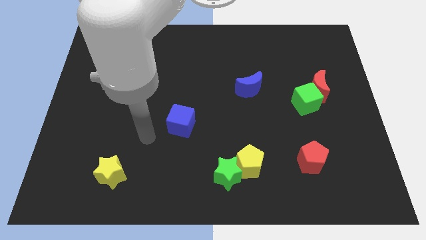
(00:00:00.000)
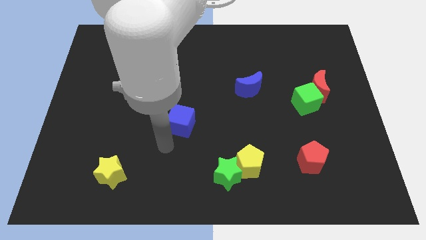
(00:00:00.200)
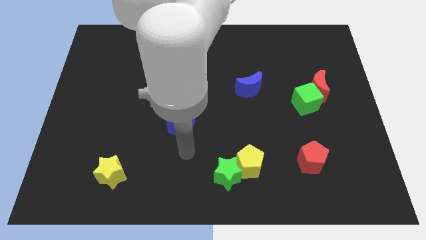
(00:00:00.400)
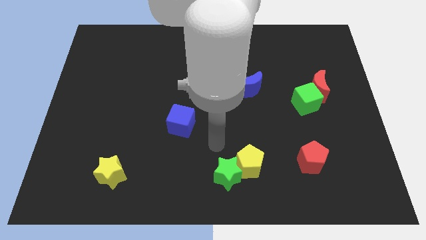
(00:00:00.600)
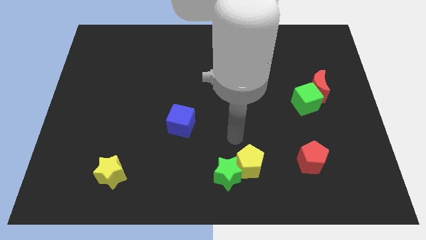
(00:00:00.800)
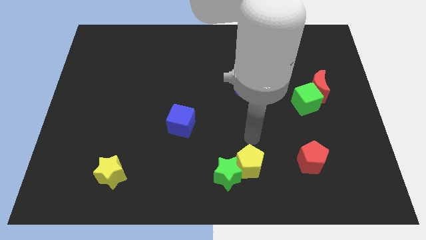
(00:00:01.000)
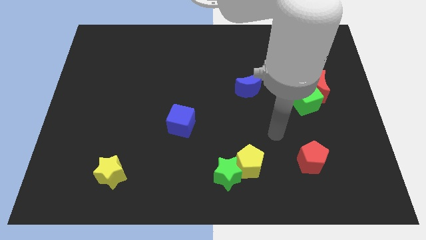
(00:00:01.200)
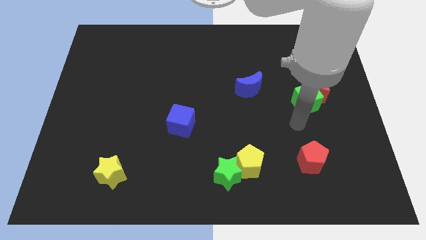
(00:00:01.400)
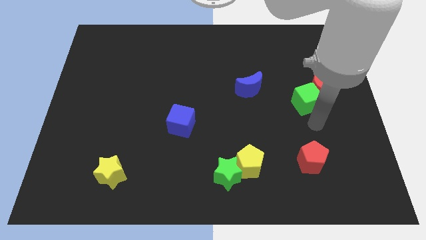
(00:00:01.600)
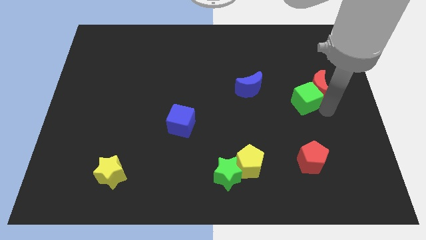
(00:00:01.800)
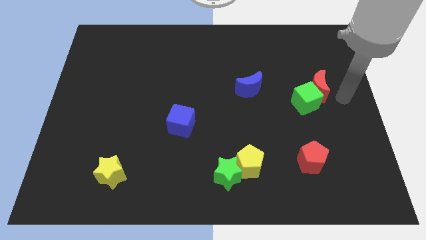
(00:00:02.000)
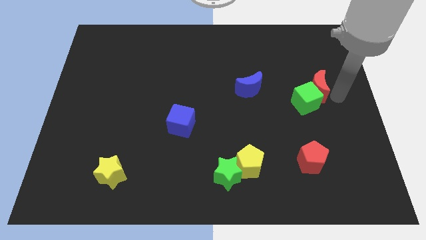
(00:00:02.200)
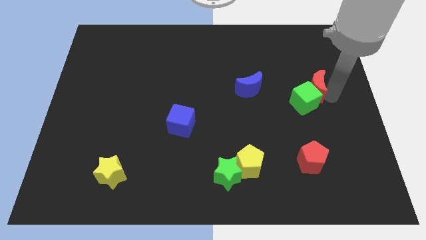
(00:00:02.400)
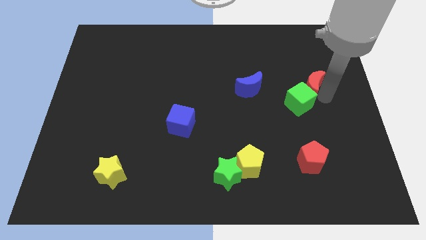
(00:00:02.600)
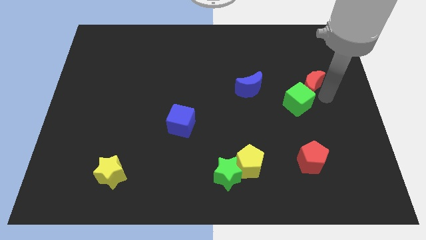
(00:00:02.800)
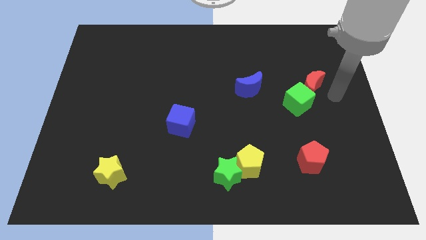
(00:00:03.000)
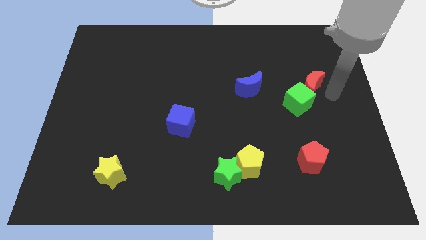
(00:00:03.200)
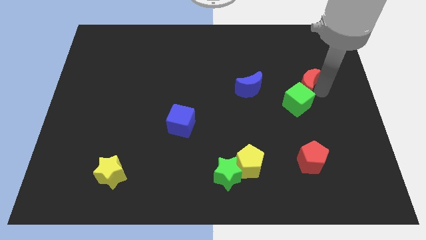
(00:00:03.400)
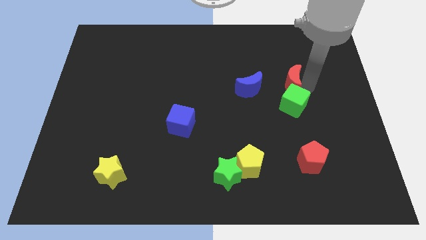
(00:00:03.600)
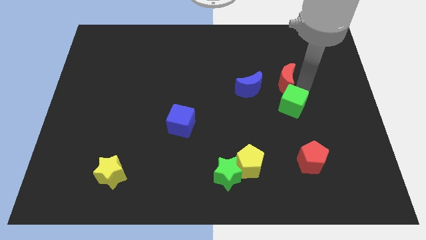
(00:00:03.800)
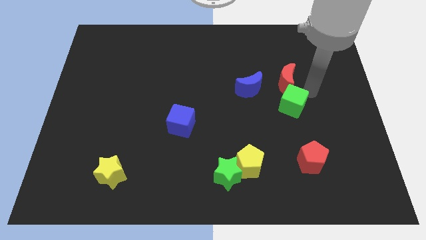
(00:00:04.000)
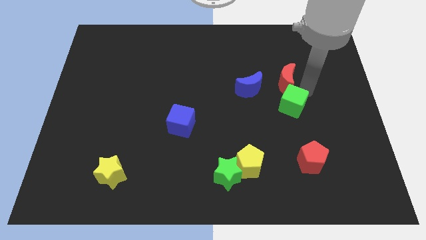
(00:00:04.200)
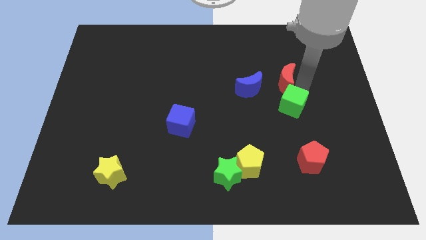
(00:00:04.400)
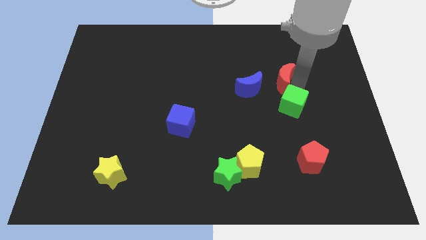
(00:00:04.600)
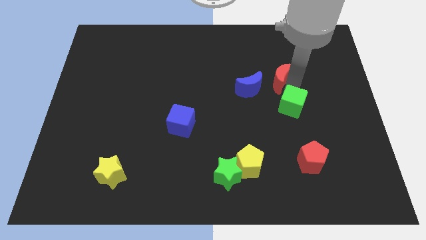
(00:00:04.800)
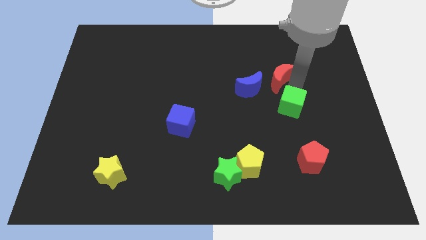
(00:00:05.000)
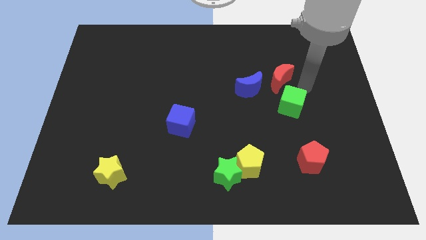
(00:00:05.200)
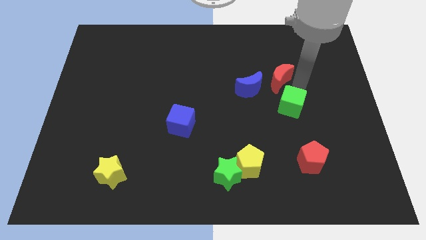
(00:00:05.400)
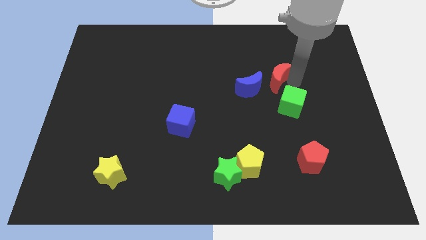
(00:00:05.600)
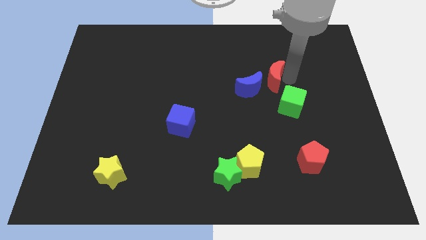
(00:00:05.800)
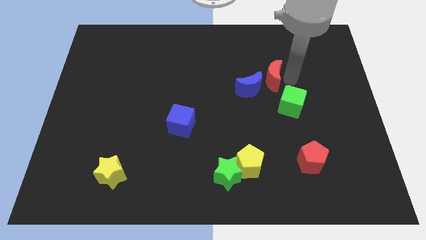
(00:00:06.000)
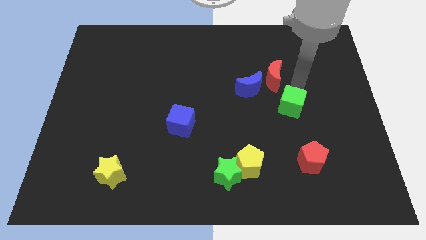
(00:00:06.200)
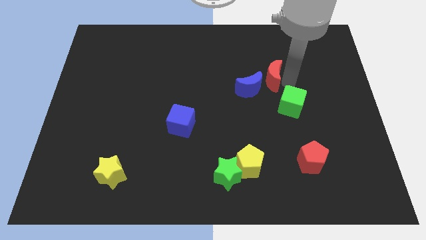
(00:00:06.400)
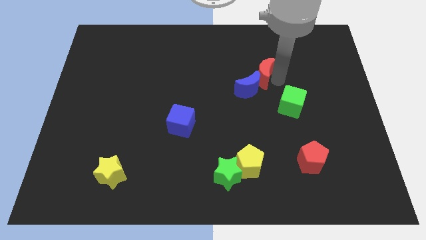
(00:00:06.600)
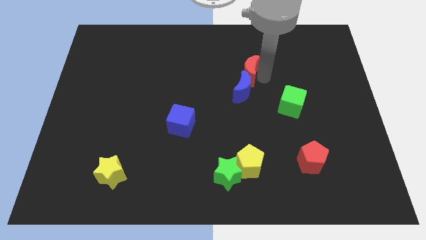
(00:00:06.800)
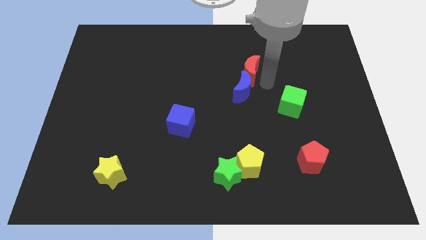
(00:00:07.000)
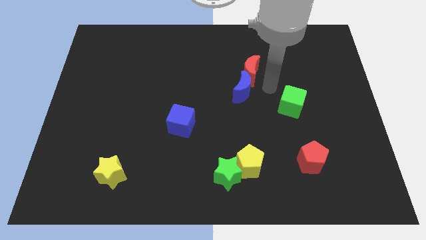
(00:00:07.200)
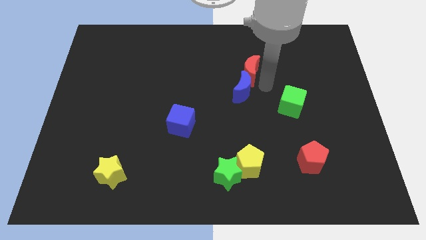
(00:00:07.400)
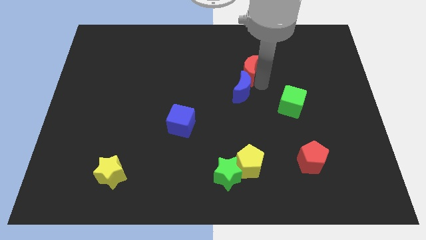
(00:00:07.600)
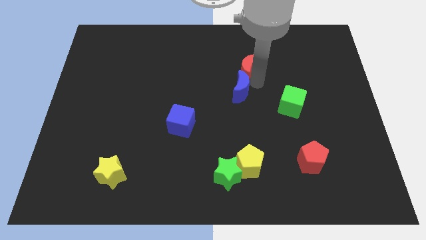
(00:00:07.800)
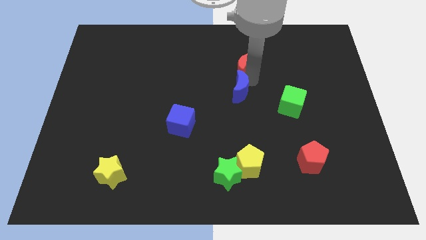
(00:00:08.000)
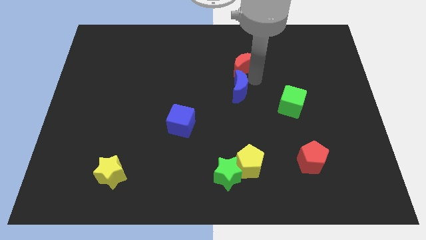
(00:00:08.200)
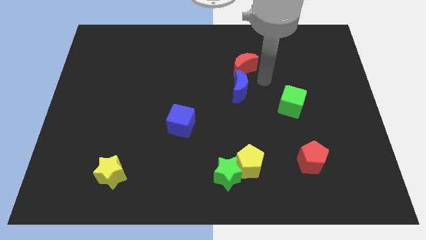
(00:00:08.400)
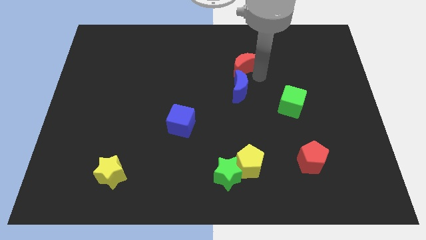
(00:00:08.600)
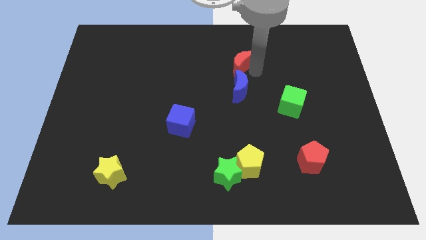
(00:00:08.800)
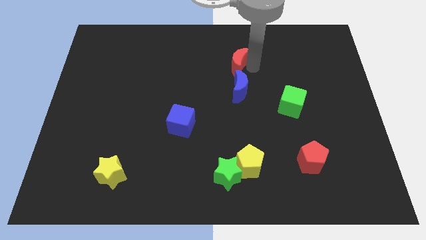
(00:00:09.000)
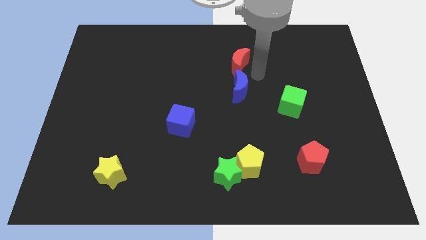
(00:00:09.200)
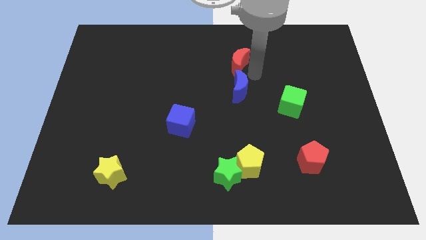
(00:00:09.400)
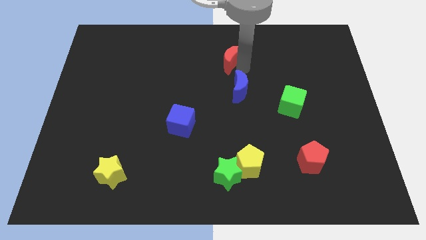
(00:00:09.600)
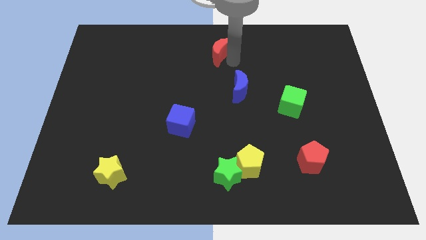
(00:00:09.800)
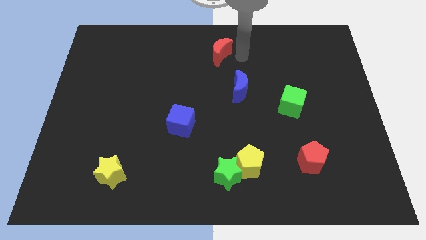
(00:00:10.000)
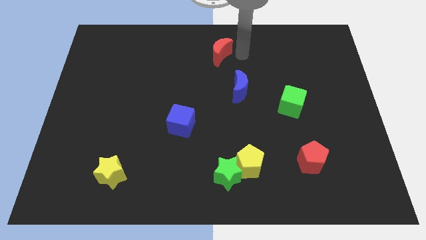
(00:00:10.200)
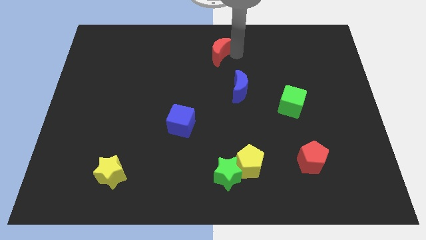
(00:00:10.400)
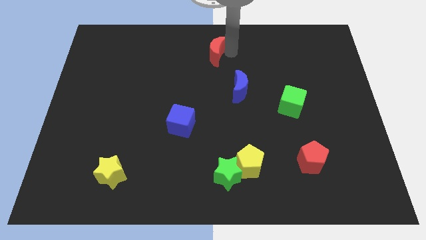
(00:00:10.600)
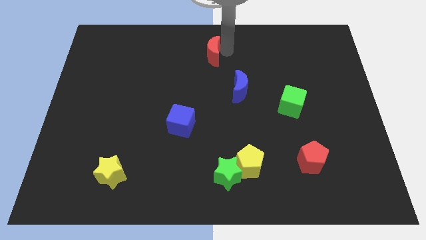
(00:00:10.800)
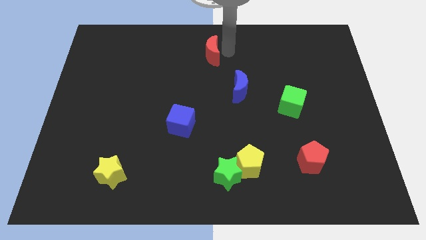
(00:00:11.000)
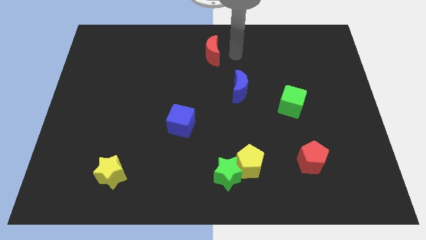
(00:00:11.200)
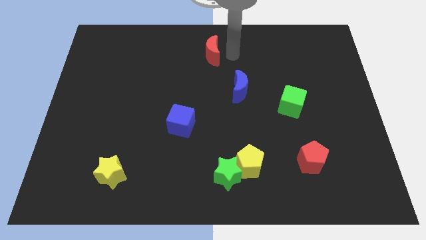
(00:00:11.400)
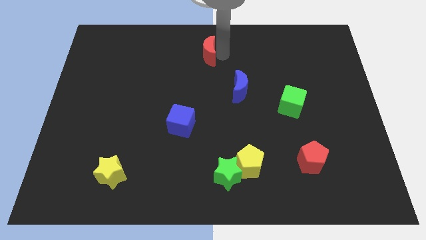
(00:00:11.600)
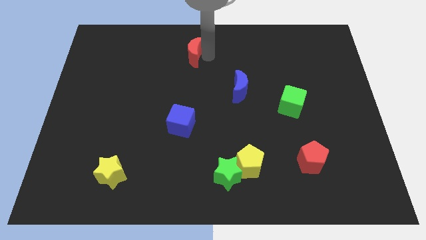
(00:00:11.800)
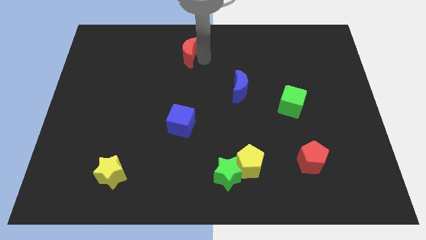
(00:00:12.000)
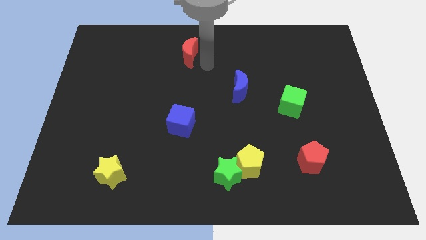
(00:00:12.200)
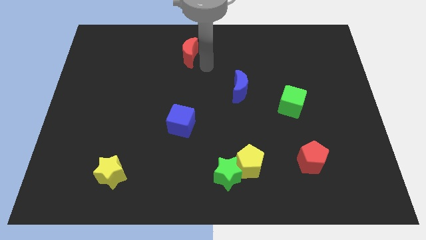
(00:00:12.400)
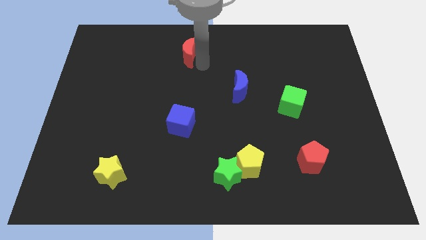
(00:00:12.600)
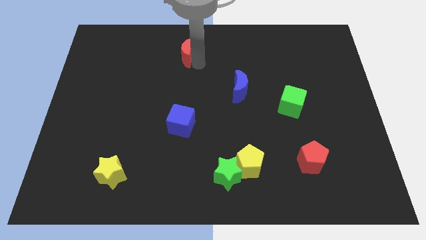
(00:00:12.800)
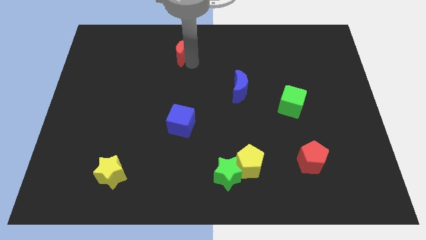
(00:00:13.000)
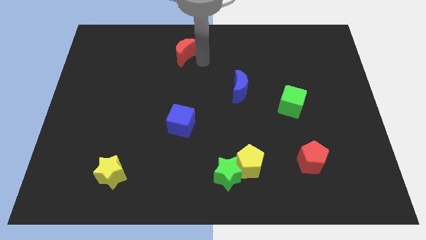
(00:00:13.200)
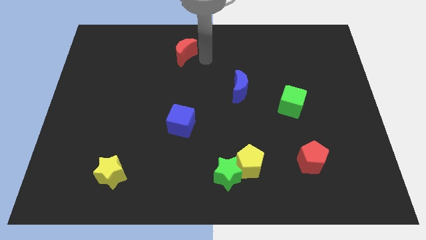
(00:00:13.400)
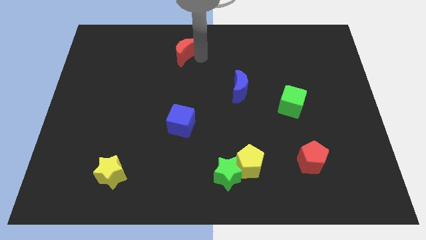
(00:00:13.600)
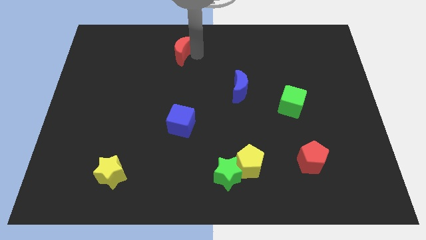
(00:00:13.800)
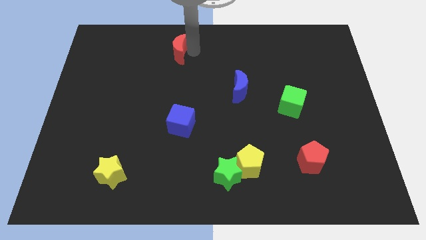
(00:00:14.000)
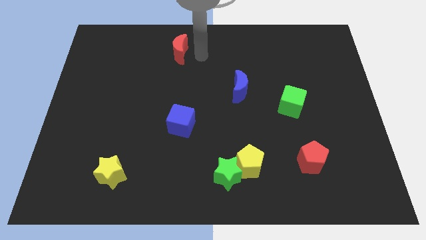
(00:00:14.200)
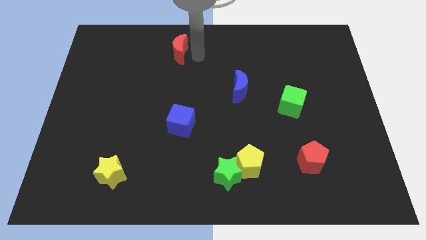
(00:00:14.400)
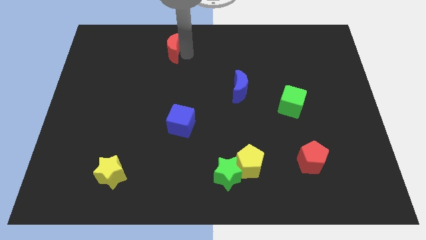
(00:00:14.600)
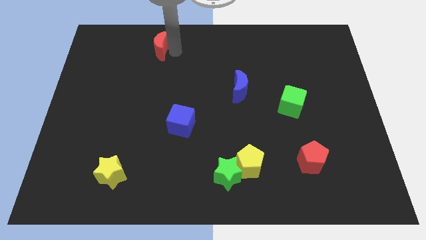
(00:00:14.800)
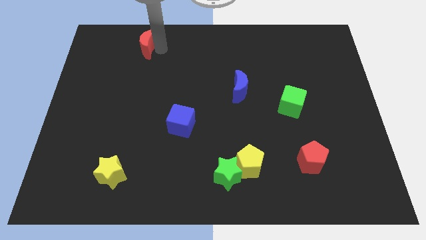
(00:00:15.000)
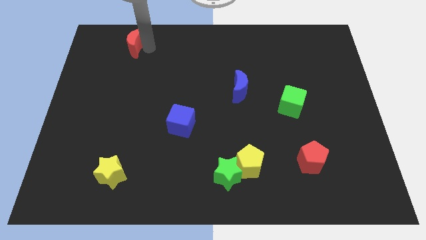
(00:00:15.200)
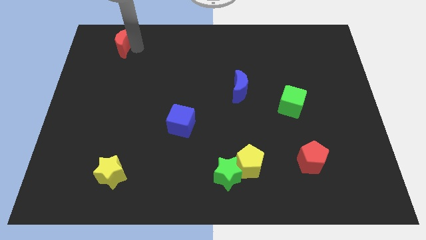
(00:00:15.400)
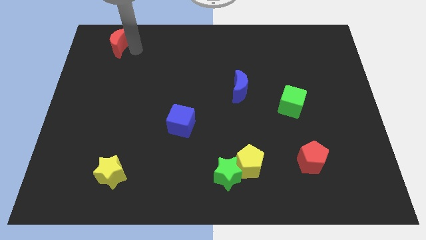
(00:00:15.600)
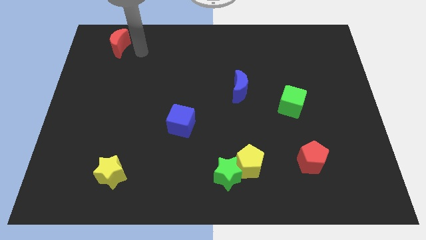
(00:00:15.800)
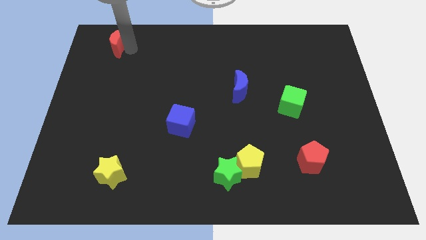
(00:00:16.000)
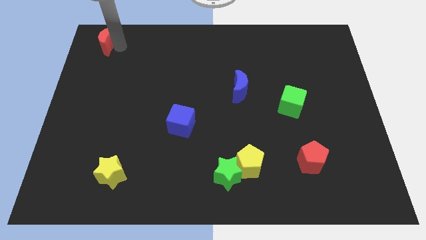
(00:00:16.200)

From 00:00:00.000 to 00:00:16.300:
slide the red moon to the top left of the board
